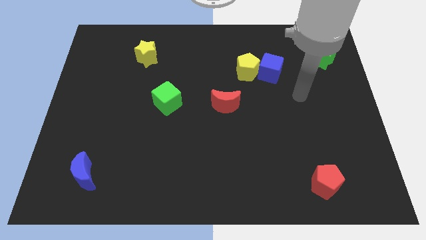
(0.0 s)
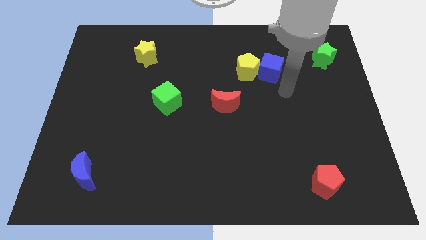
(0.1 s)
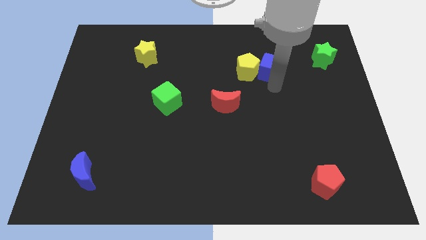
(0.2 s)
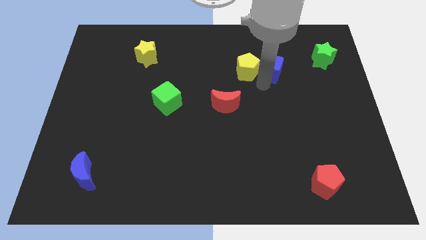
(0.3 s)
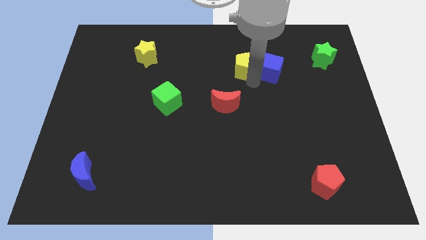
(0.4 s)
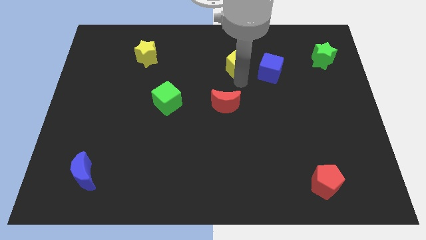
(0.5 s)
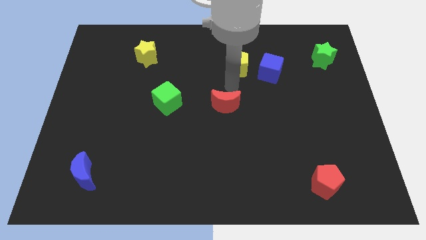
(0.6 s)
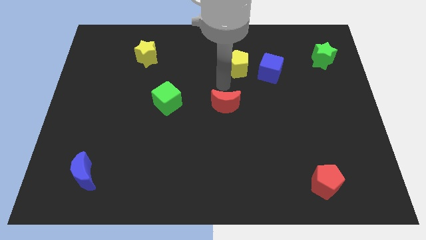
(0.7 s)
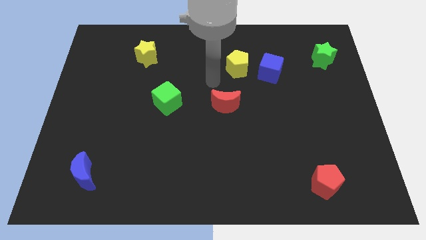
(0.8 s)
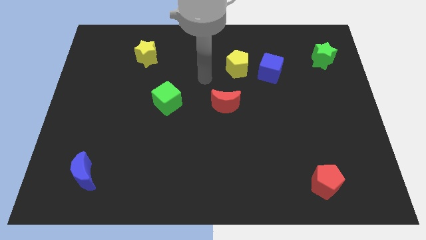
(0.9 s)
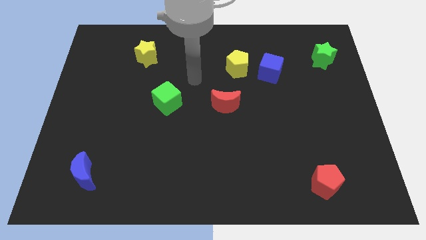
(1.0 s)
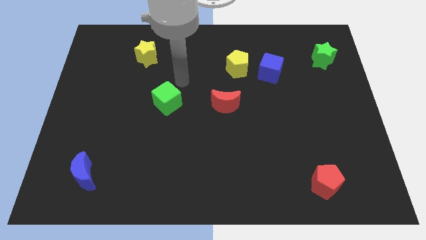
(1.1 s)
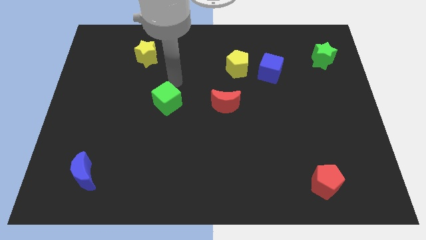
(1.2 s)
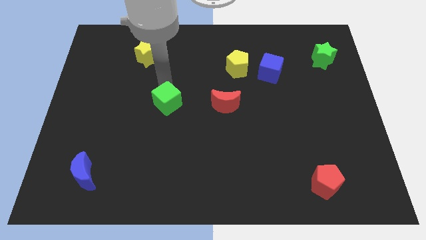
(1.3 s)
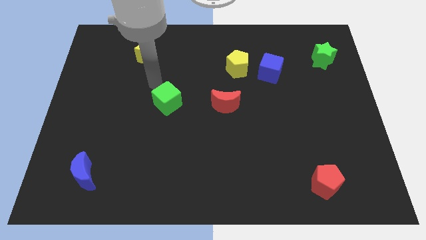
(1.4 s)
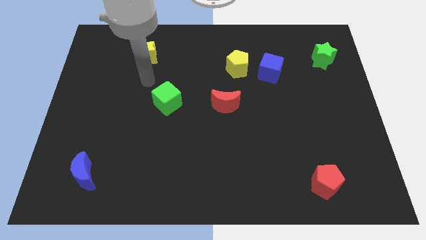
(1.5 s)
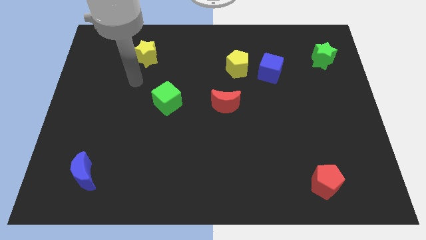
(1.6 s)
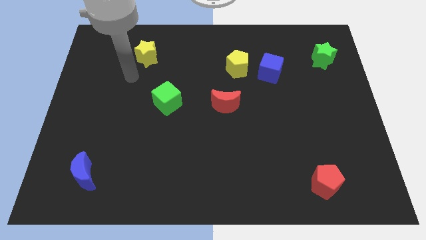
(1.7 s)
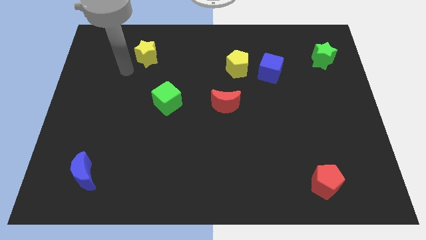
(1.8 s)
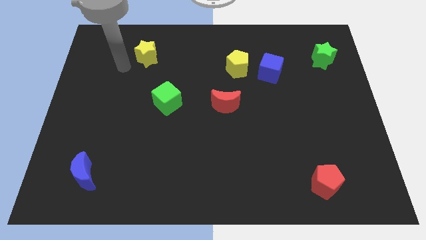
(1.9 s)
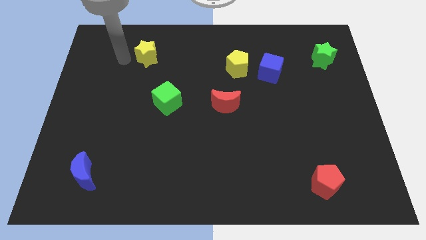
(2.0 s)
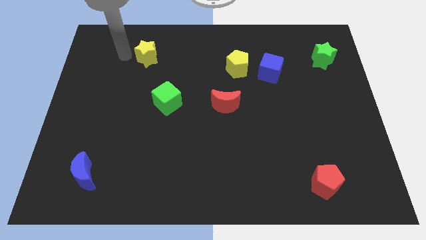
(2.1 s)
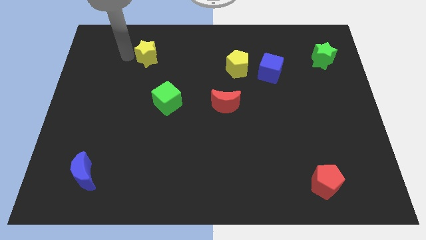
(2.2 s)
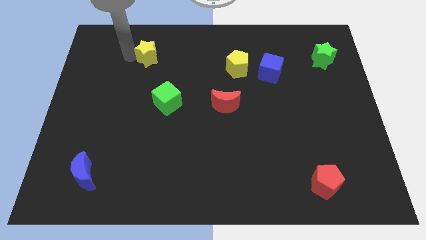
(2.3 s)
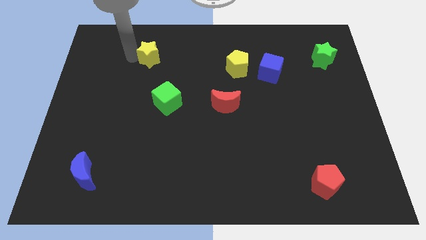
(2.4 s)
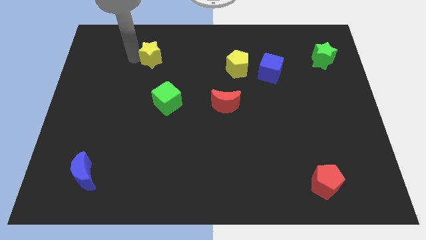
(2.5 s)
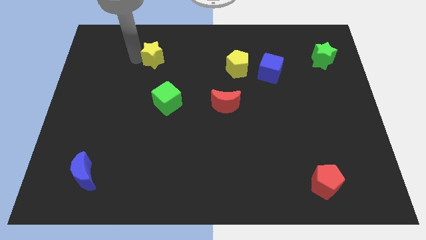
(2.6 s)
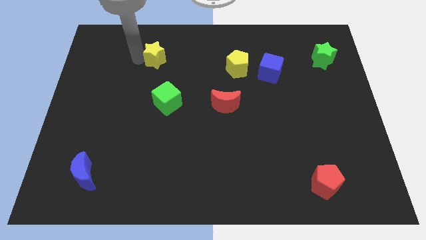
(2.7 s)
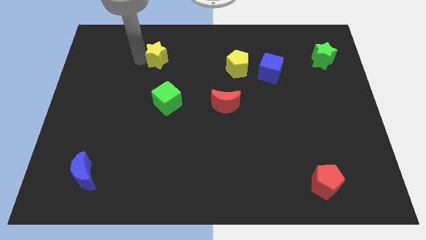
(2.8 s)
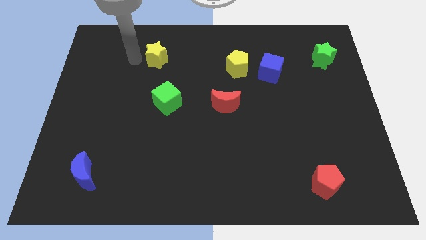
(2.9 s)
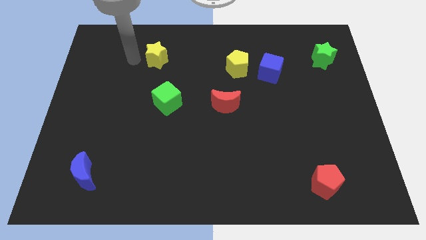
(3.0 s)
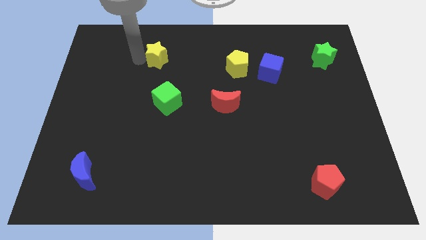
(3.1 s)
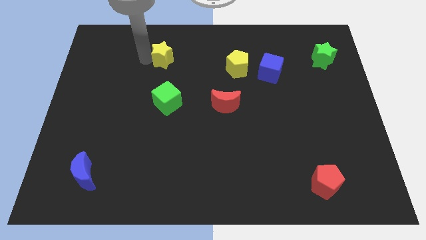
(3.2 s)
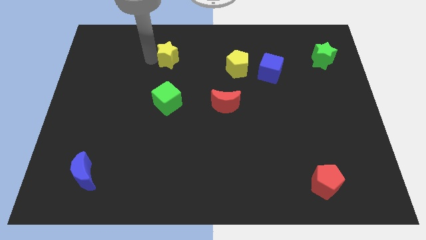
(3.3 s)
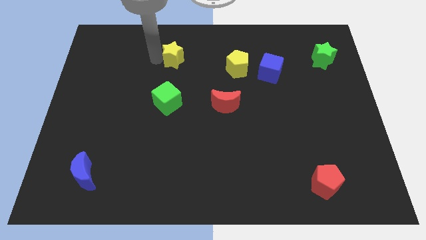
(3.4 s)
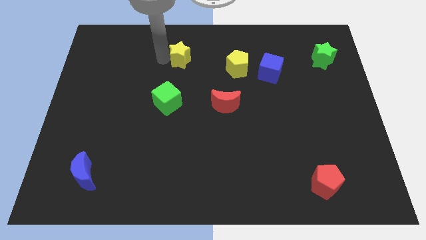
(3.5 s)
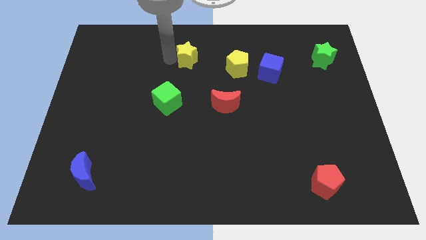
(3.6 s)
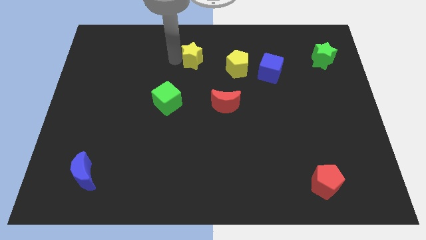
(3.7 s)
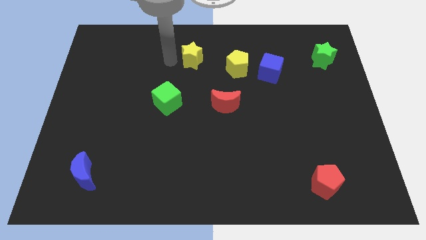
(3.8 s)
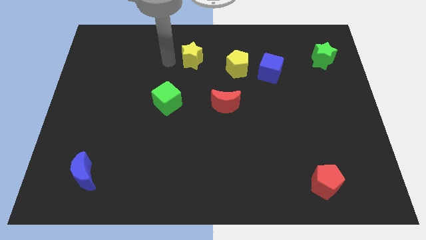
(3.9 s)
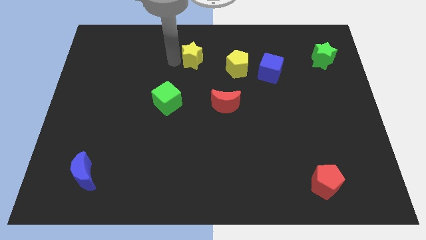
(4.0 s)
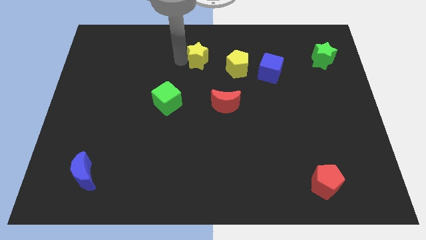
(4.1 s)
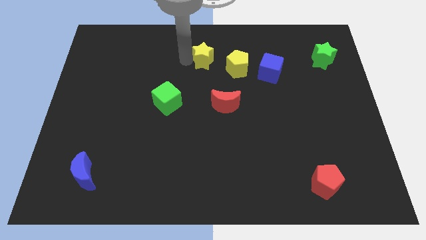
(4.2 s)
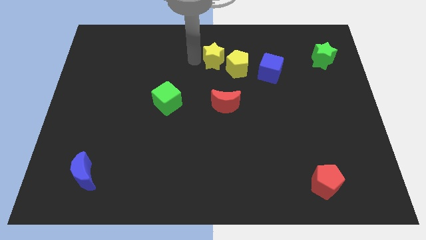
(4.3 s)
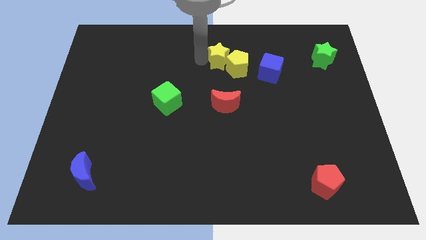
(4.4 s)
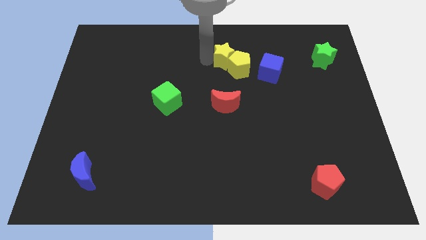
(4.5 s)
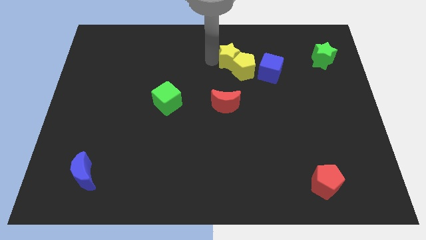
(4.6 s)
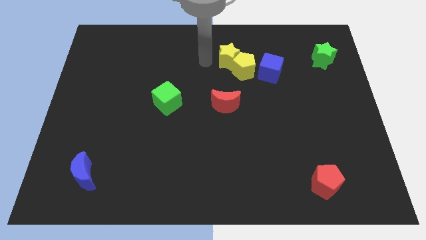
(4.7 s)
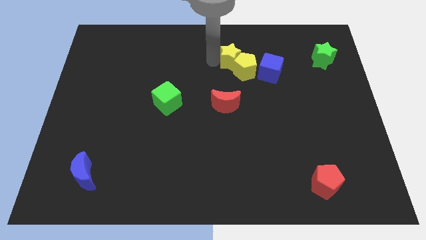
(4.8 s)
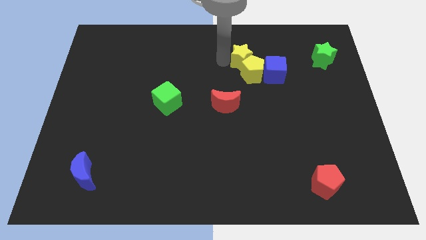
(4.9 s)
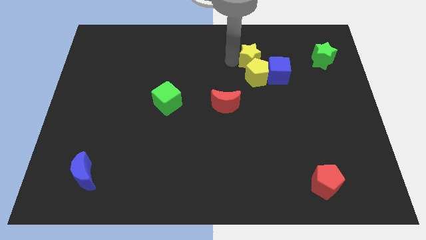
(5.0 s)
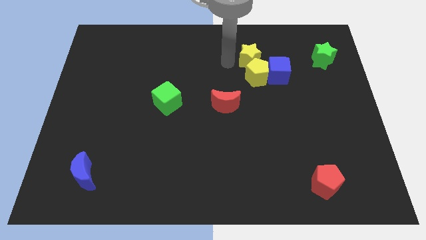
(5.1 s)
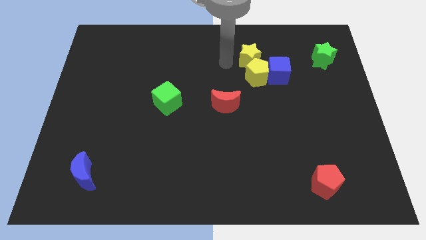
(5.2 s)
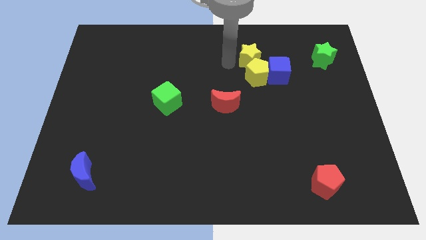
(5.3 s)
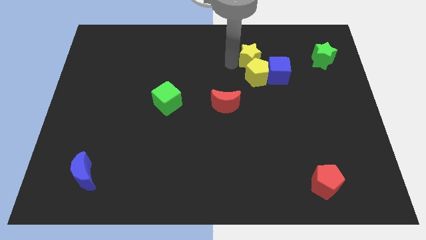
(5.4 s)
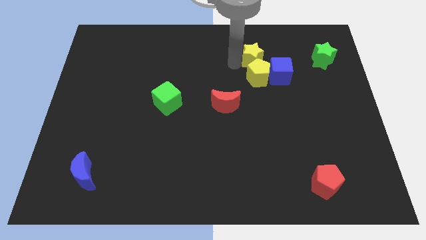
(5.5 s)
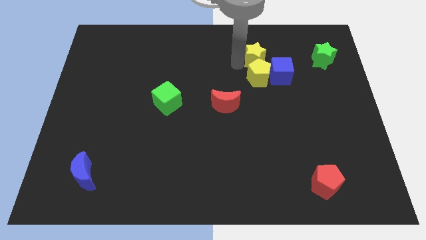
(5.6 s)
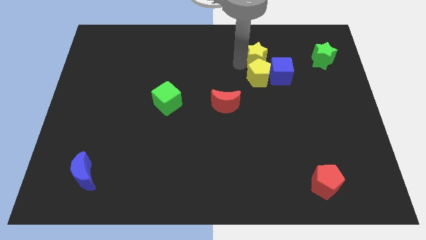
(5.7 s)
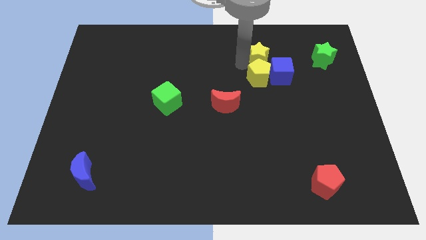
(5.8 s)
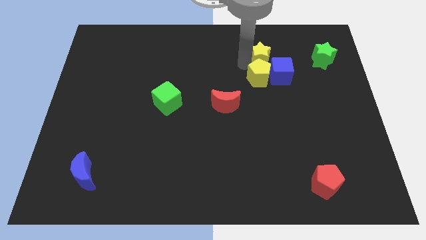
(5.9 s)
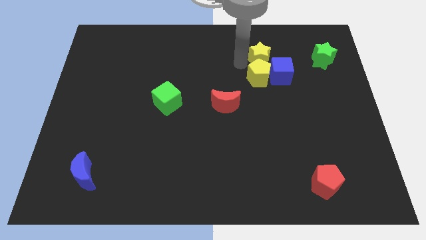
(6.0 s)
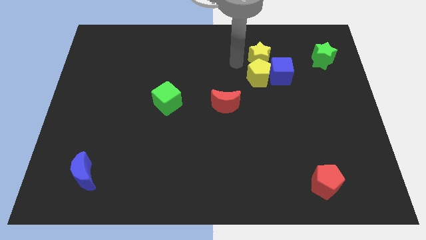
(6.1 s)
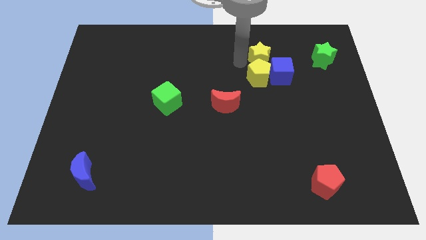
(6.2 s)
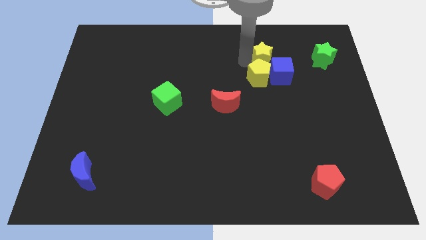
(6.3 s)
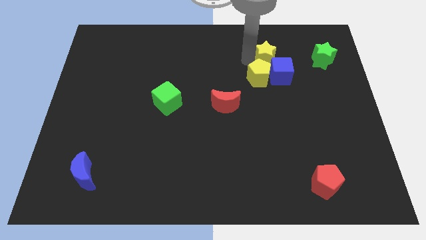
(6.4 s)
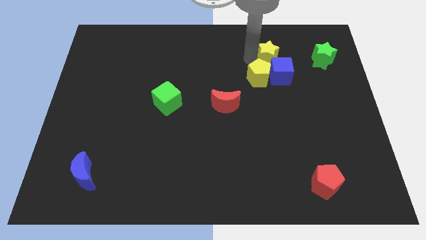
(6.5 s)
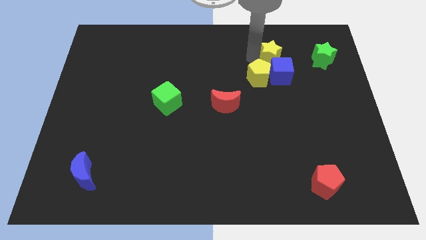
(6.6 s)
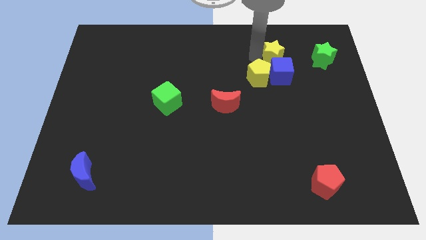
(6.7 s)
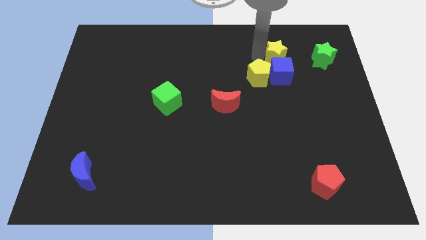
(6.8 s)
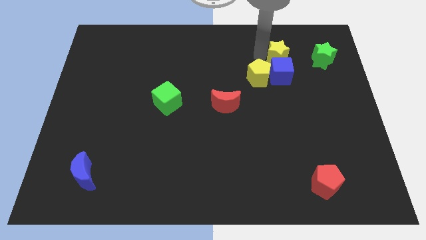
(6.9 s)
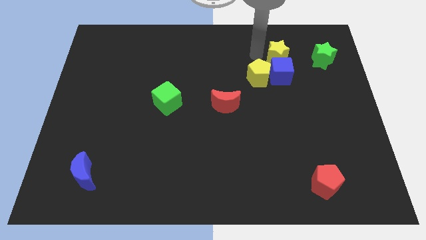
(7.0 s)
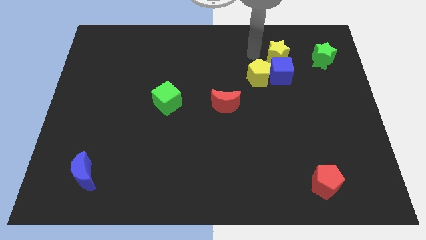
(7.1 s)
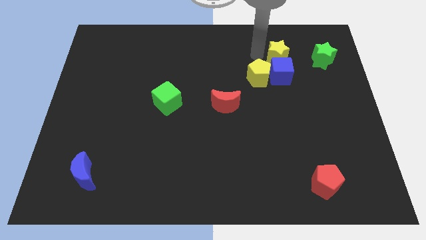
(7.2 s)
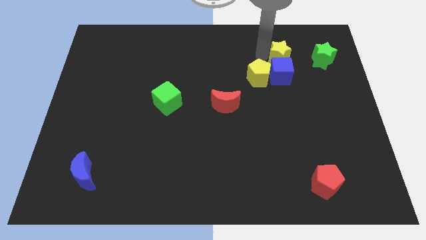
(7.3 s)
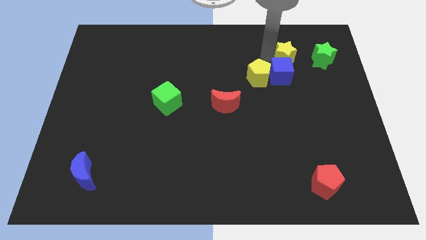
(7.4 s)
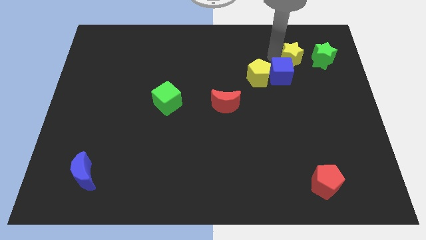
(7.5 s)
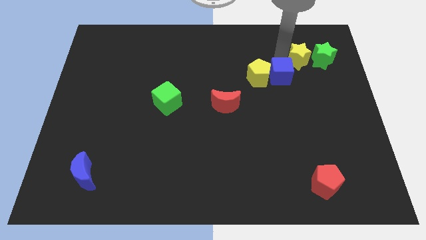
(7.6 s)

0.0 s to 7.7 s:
put the yellow star next to the green star

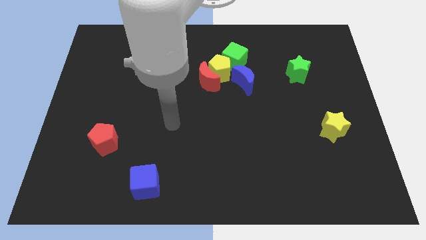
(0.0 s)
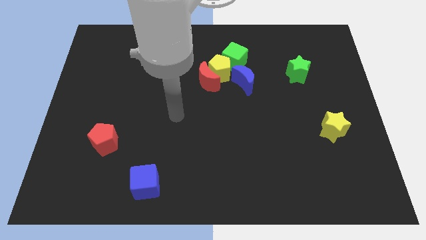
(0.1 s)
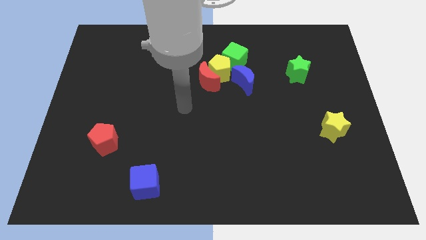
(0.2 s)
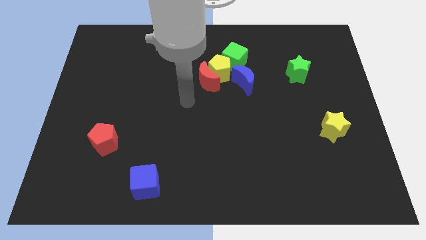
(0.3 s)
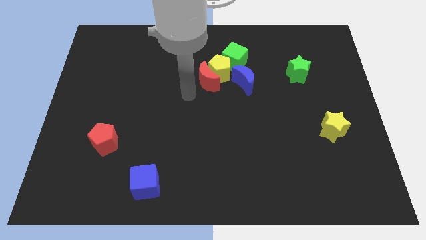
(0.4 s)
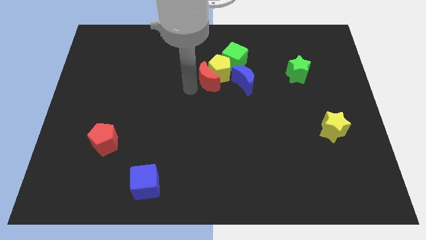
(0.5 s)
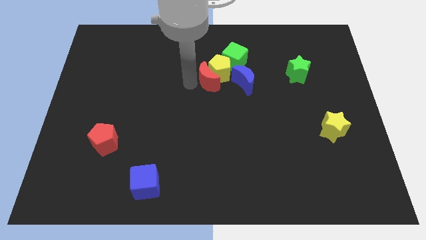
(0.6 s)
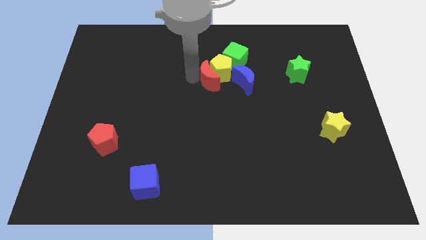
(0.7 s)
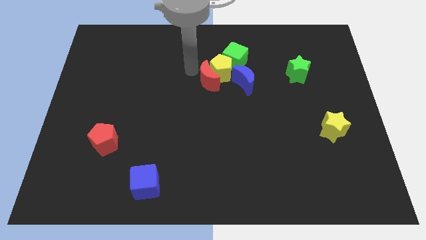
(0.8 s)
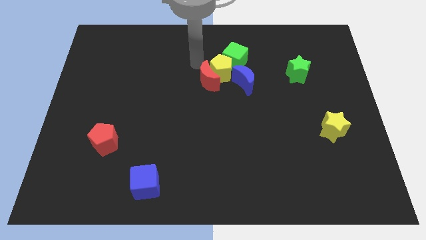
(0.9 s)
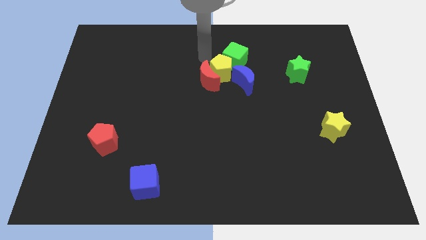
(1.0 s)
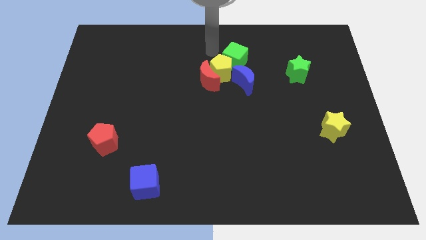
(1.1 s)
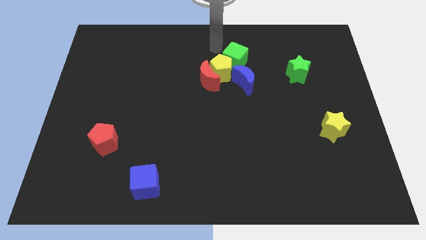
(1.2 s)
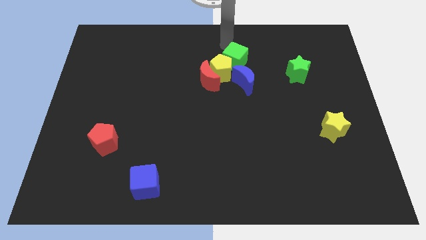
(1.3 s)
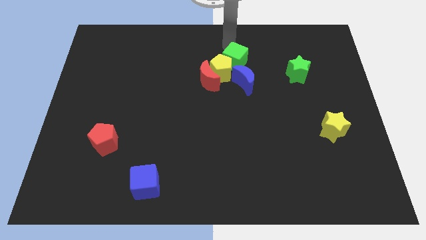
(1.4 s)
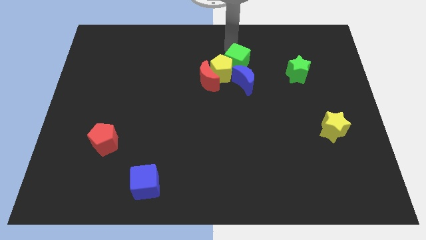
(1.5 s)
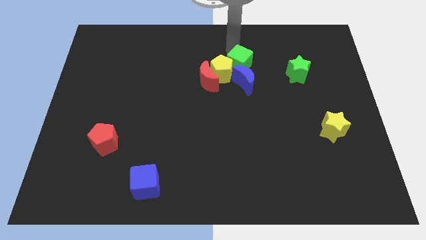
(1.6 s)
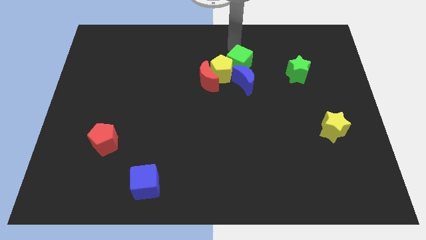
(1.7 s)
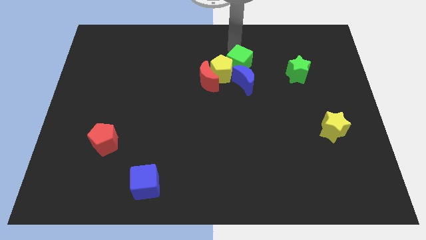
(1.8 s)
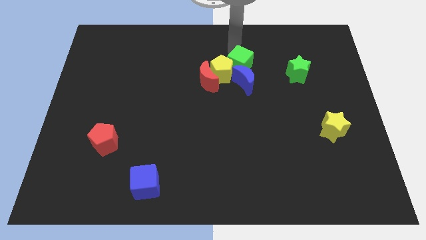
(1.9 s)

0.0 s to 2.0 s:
push the green cube close to the blue moon
